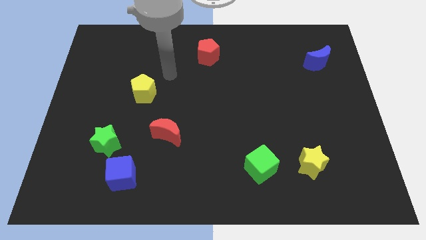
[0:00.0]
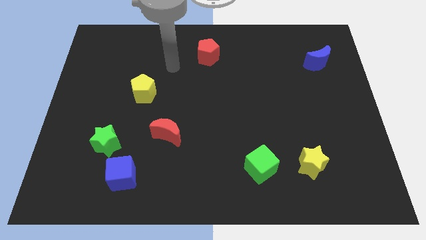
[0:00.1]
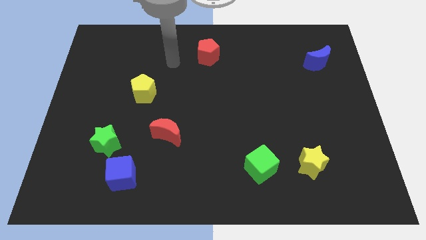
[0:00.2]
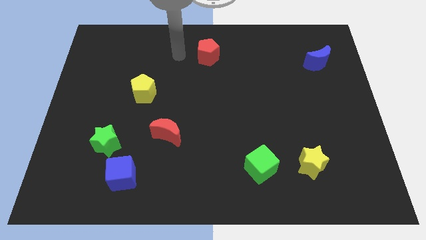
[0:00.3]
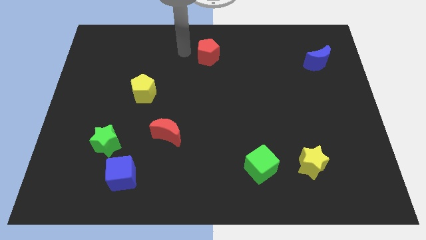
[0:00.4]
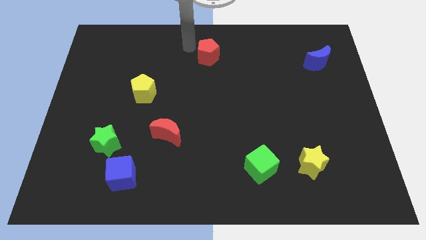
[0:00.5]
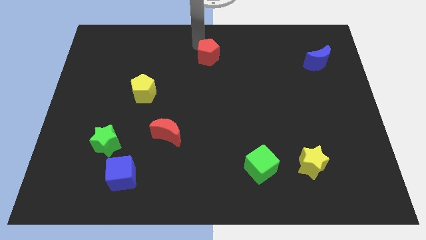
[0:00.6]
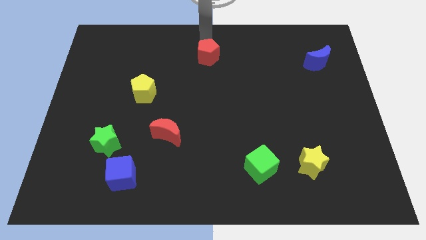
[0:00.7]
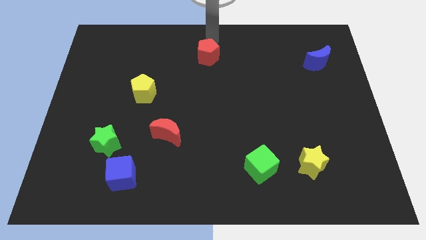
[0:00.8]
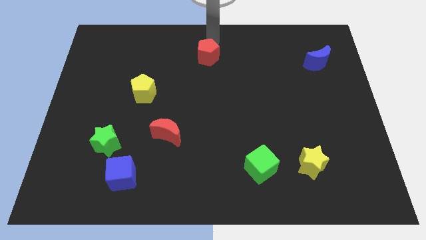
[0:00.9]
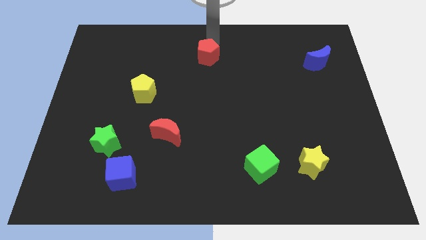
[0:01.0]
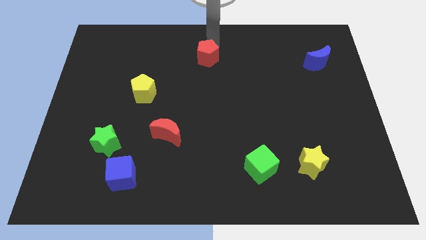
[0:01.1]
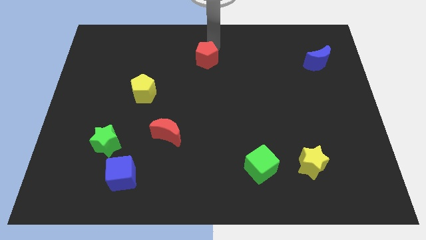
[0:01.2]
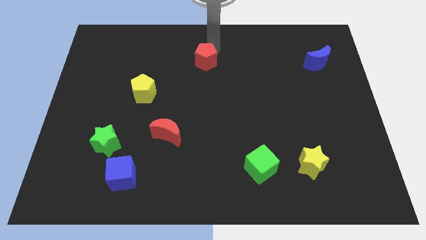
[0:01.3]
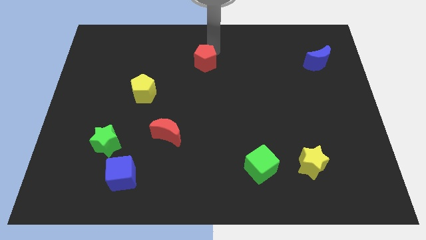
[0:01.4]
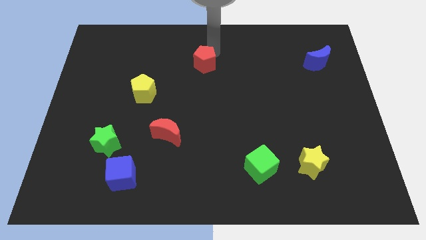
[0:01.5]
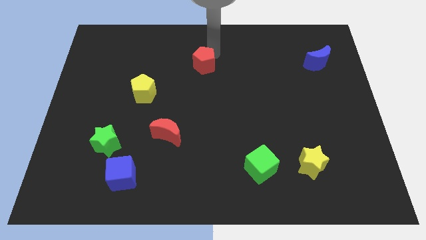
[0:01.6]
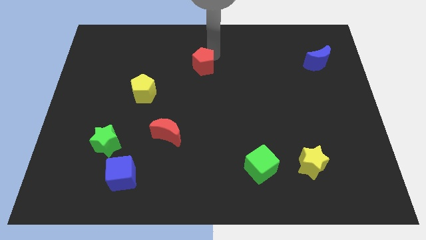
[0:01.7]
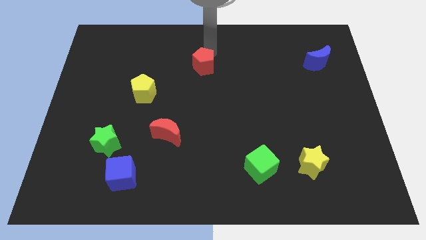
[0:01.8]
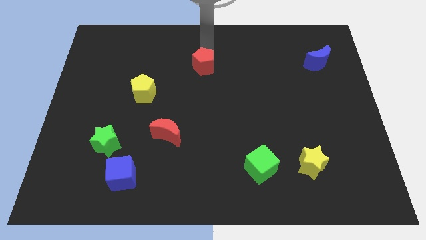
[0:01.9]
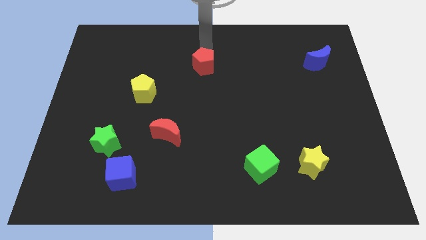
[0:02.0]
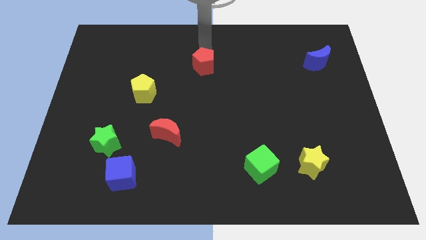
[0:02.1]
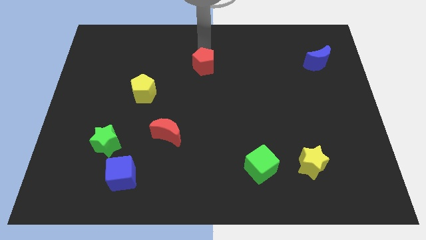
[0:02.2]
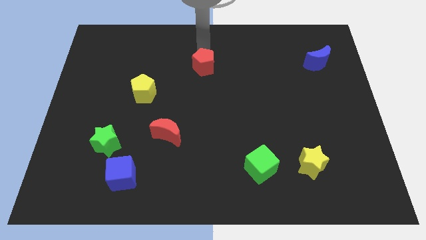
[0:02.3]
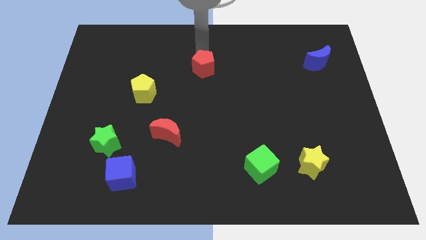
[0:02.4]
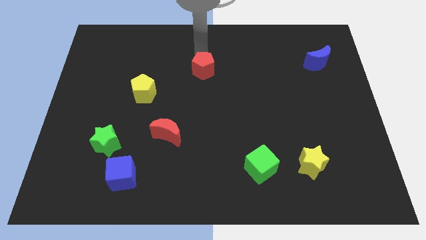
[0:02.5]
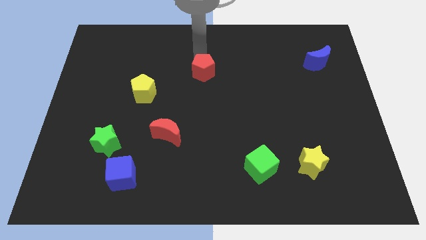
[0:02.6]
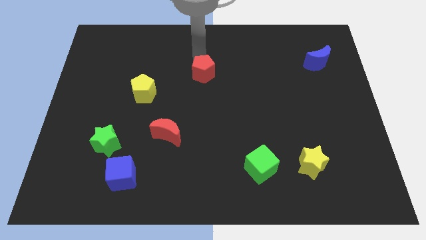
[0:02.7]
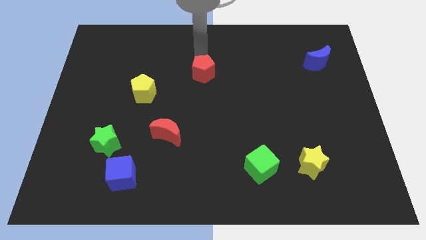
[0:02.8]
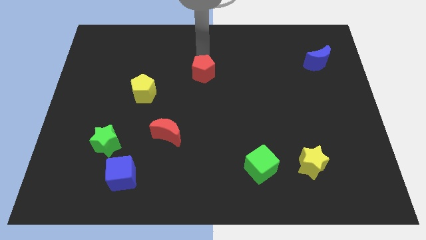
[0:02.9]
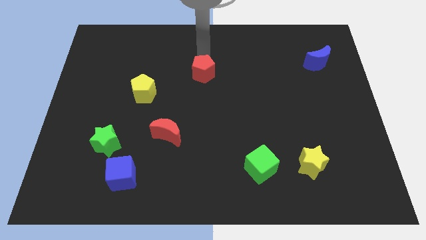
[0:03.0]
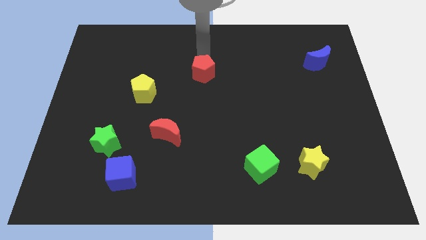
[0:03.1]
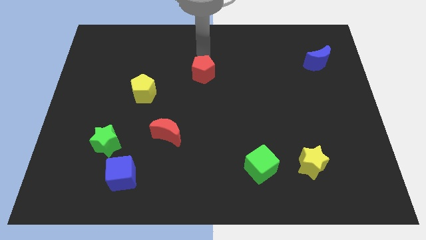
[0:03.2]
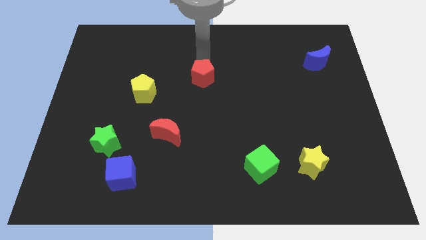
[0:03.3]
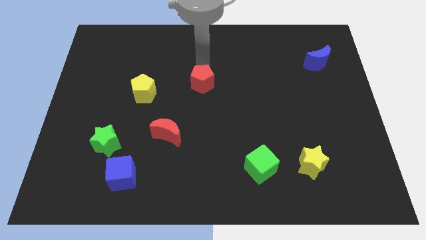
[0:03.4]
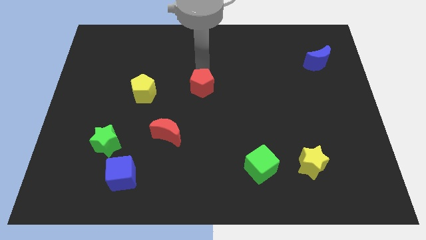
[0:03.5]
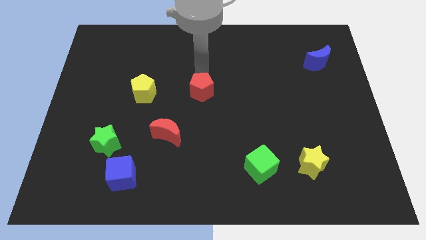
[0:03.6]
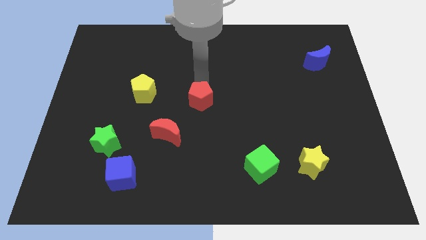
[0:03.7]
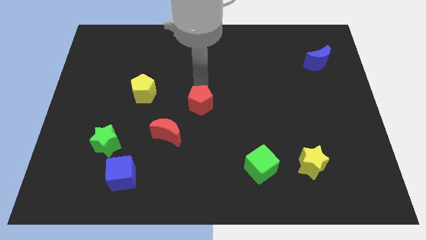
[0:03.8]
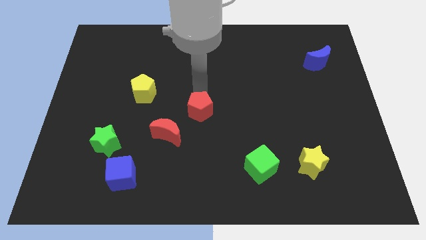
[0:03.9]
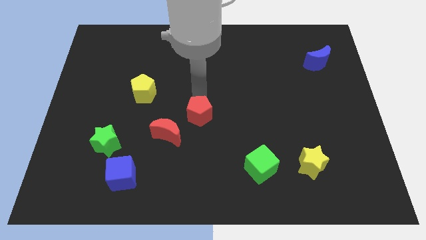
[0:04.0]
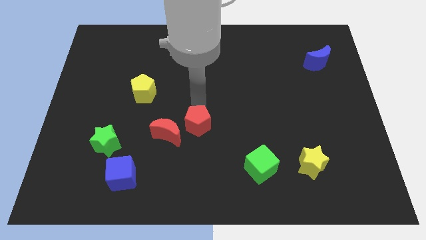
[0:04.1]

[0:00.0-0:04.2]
push the red pentagon down

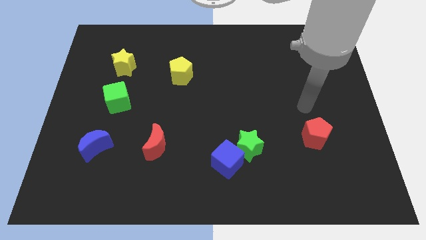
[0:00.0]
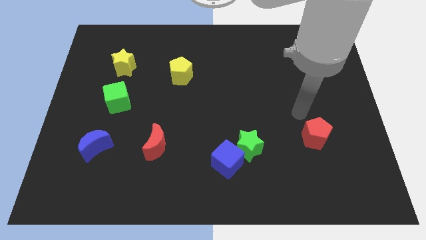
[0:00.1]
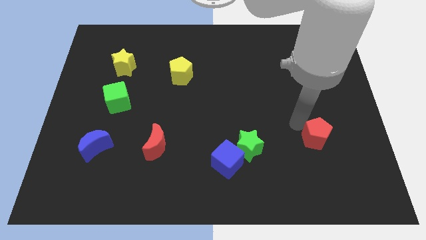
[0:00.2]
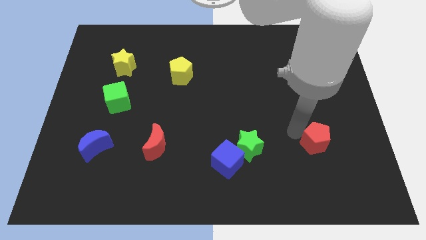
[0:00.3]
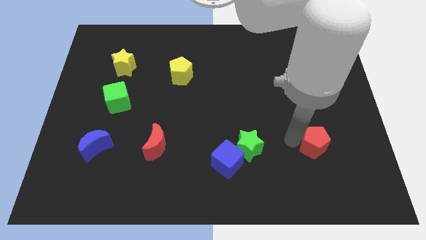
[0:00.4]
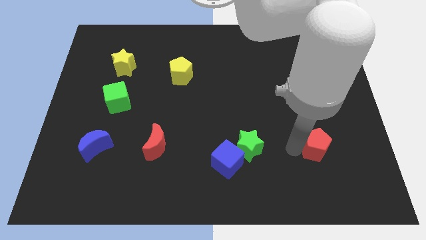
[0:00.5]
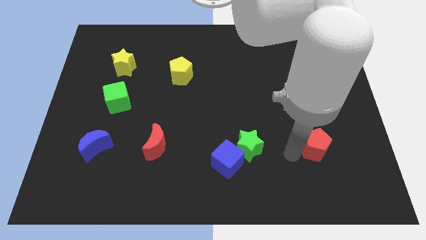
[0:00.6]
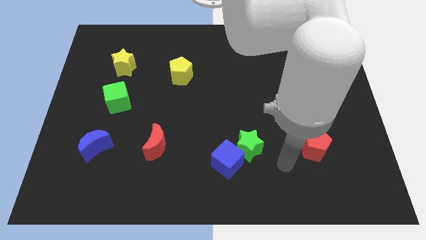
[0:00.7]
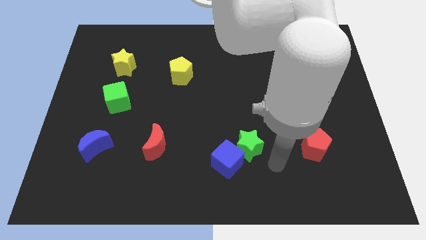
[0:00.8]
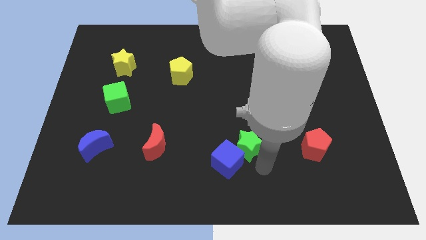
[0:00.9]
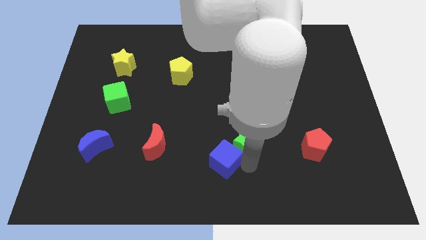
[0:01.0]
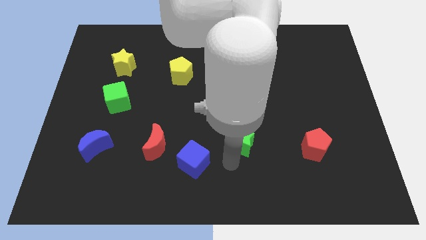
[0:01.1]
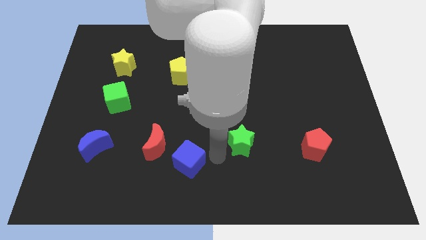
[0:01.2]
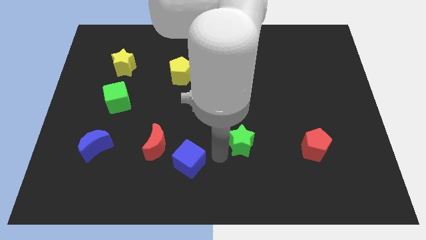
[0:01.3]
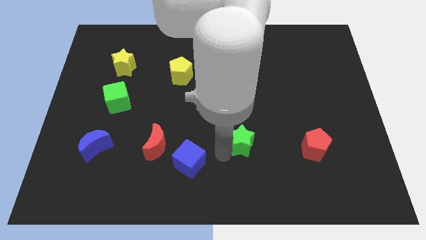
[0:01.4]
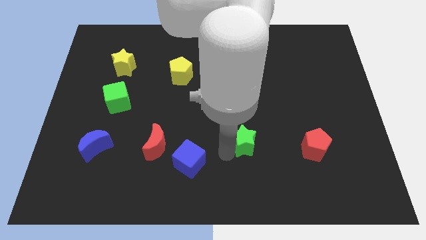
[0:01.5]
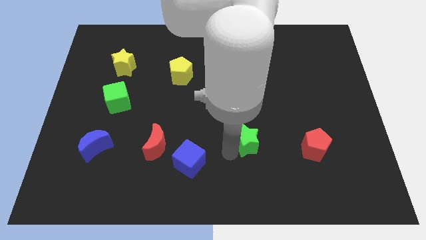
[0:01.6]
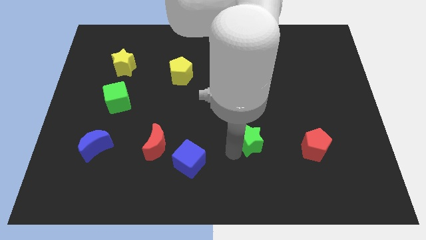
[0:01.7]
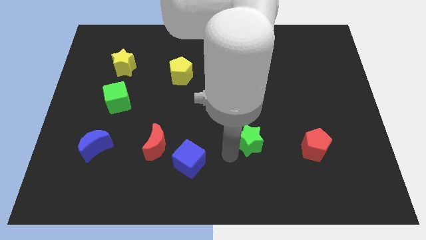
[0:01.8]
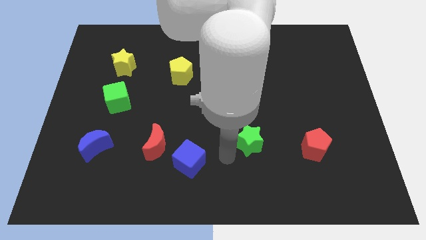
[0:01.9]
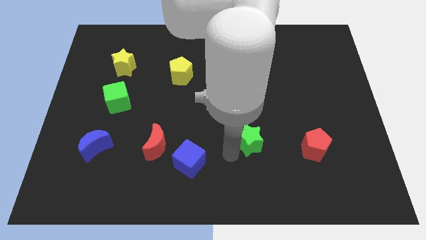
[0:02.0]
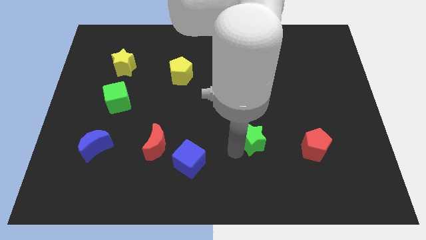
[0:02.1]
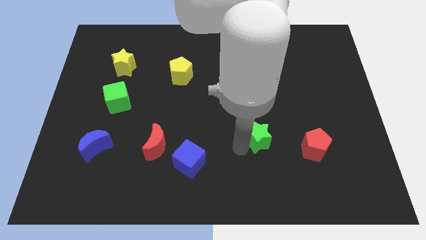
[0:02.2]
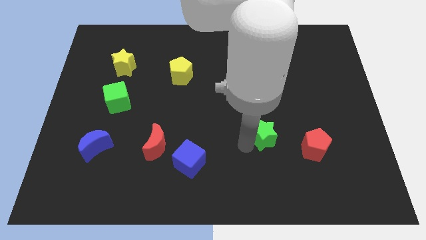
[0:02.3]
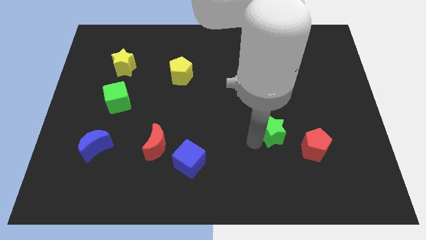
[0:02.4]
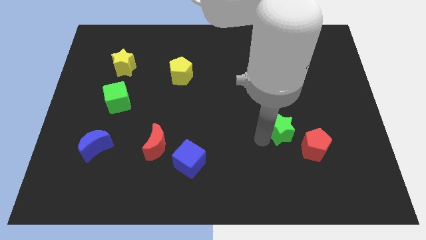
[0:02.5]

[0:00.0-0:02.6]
push the green star slightly upwards and right diagonally

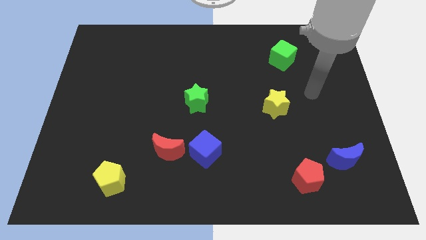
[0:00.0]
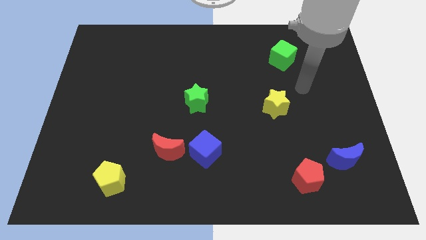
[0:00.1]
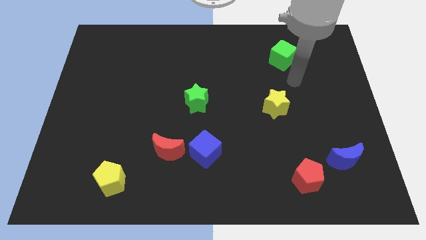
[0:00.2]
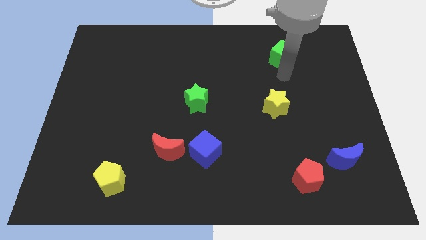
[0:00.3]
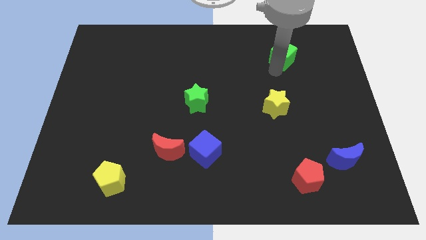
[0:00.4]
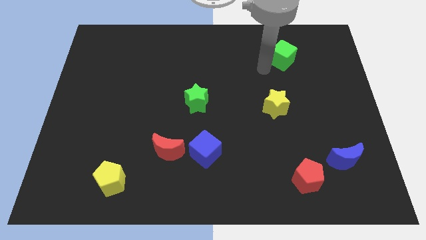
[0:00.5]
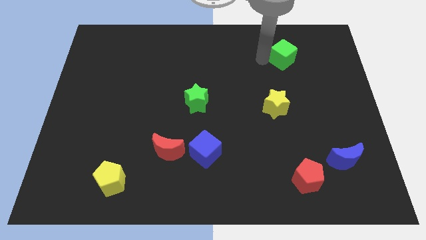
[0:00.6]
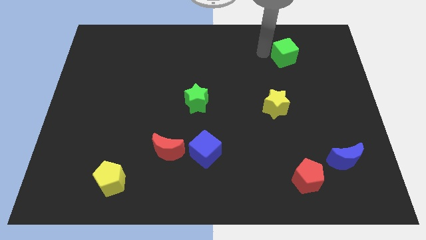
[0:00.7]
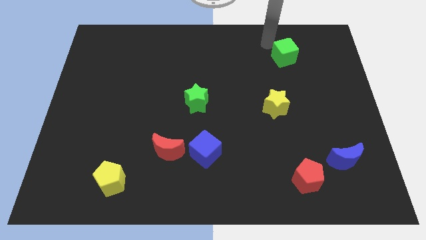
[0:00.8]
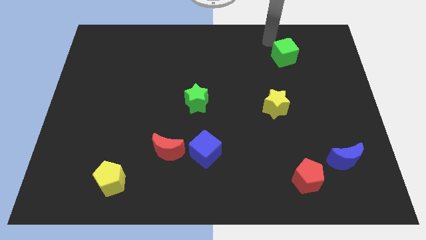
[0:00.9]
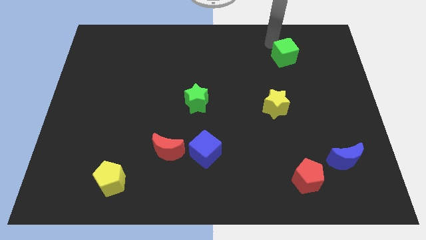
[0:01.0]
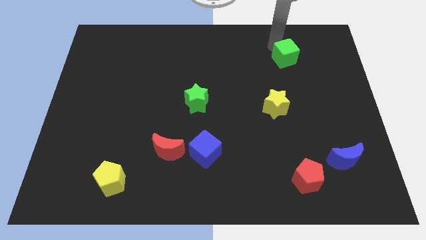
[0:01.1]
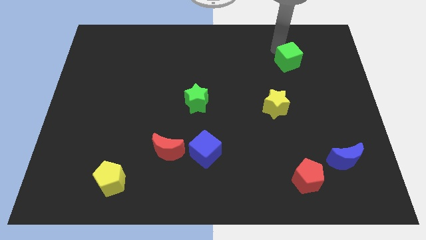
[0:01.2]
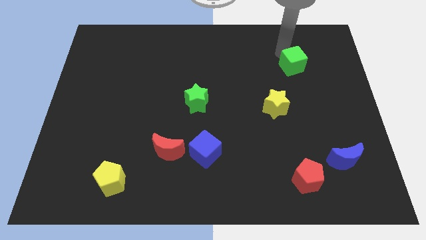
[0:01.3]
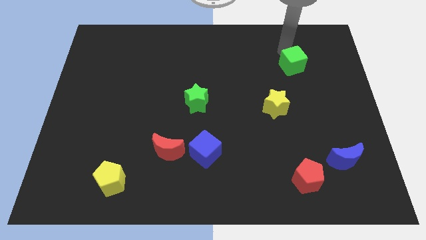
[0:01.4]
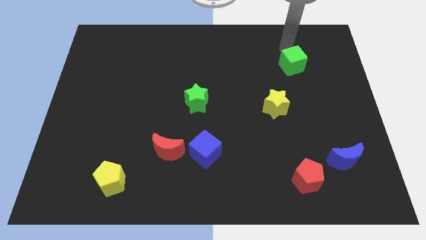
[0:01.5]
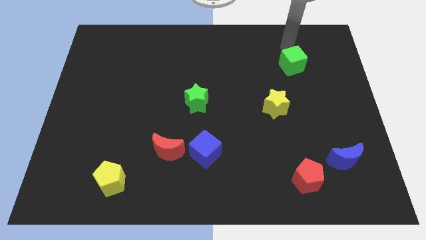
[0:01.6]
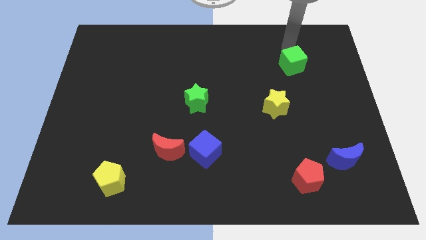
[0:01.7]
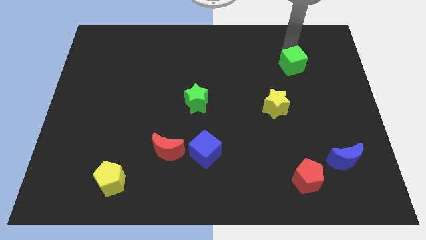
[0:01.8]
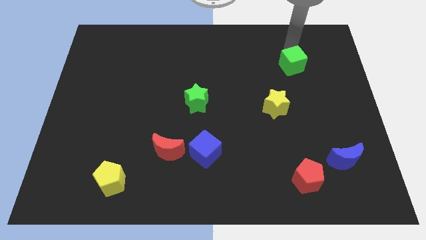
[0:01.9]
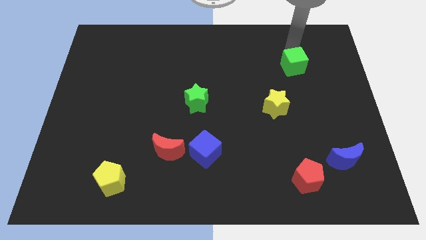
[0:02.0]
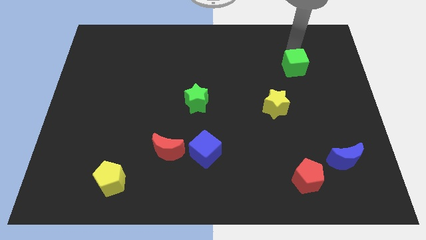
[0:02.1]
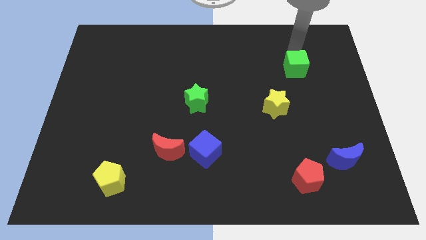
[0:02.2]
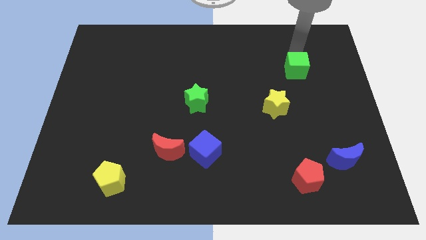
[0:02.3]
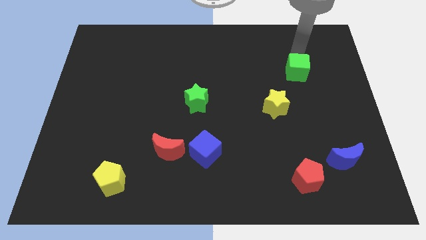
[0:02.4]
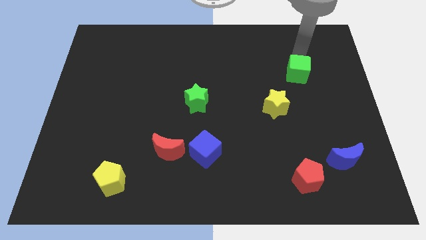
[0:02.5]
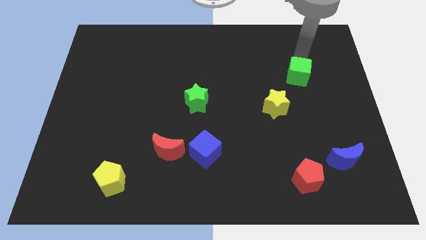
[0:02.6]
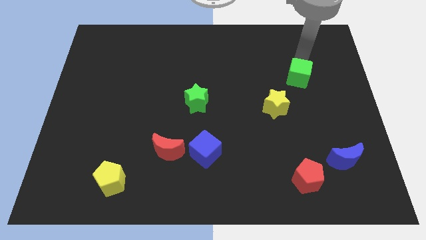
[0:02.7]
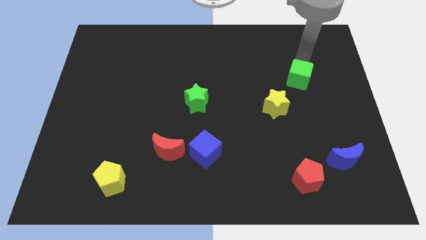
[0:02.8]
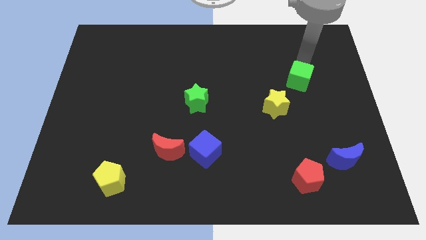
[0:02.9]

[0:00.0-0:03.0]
slightly move the green cube downwards
